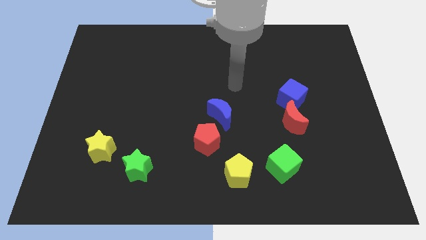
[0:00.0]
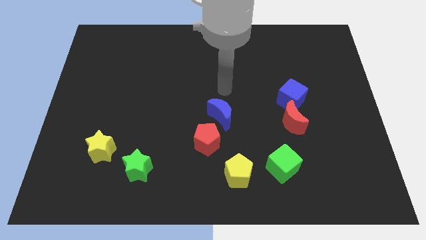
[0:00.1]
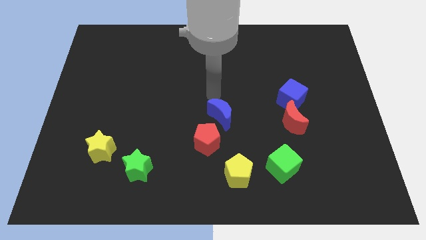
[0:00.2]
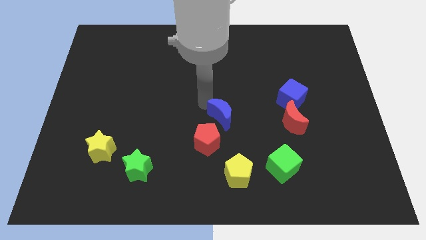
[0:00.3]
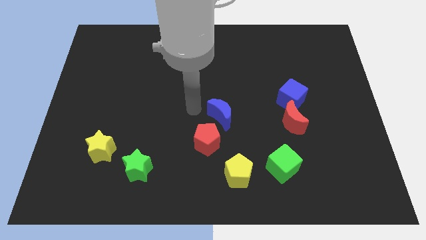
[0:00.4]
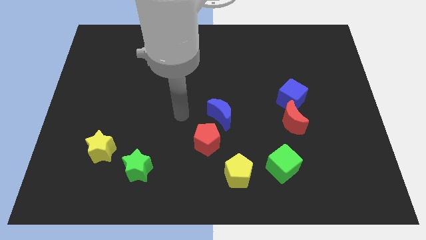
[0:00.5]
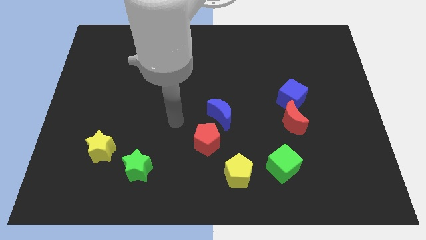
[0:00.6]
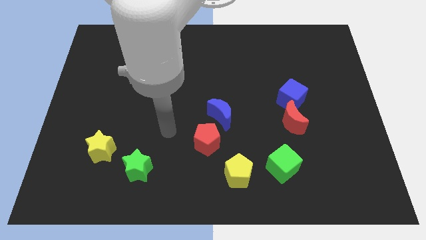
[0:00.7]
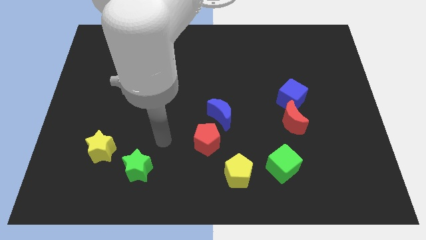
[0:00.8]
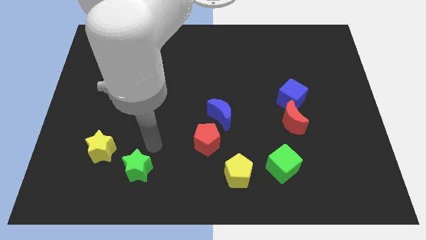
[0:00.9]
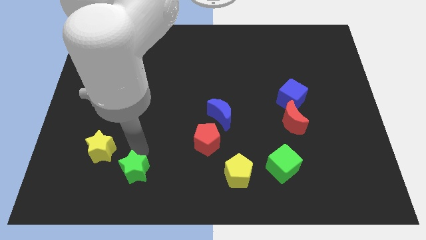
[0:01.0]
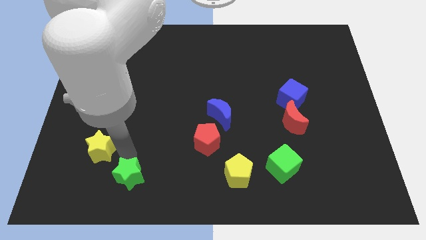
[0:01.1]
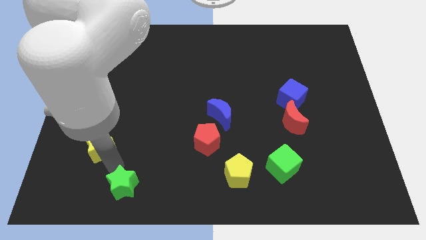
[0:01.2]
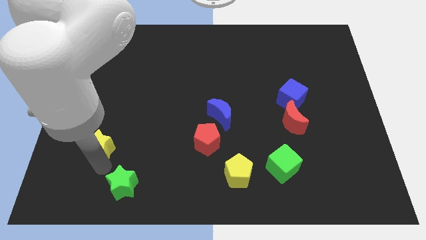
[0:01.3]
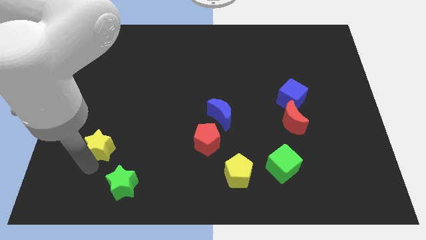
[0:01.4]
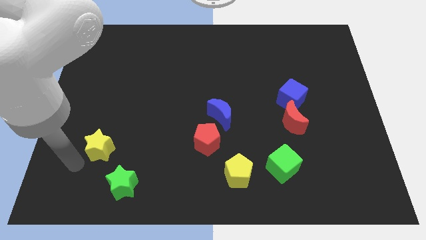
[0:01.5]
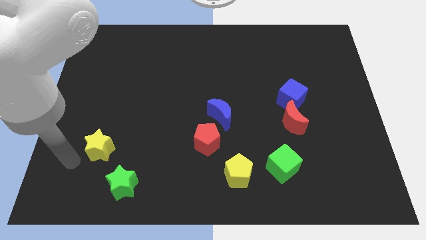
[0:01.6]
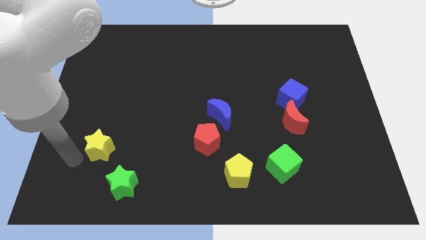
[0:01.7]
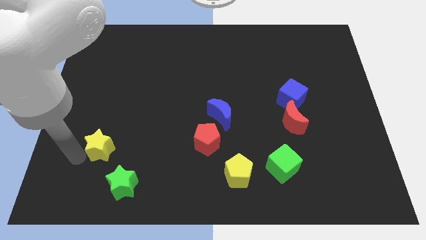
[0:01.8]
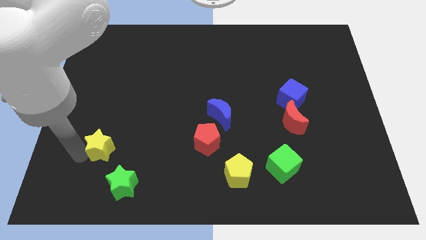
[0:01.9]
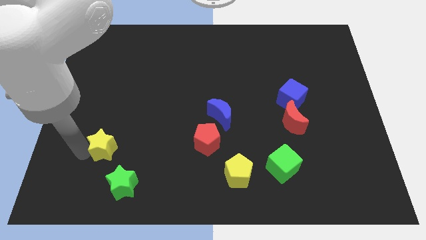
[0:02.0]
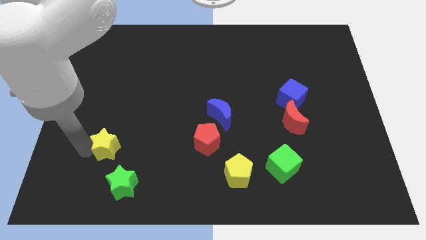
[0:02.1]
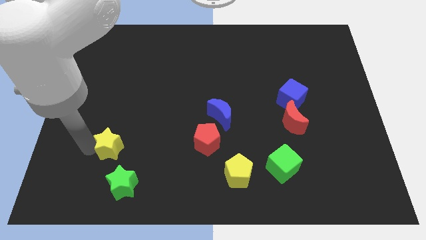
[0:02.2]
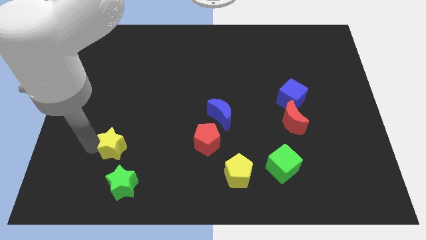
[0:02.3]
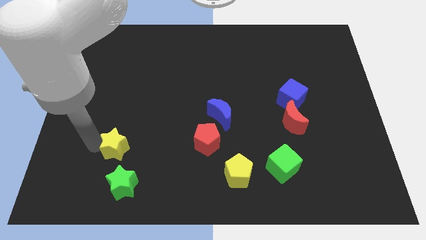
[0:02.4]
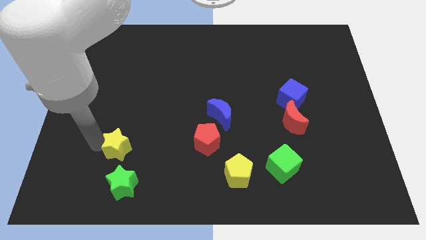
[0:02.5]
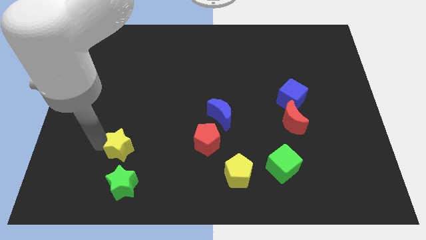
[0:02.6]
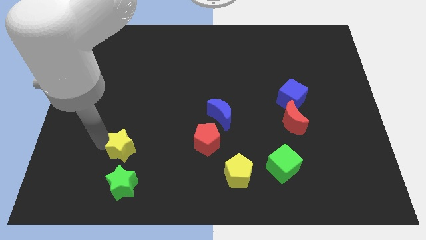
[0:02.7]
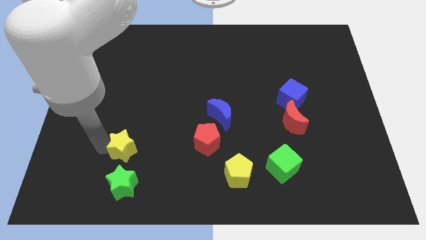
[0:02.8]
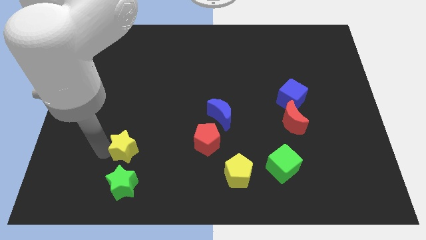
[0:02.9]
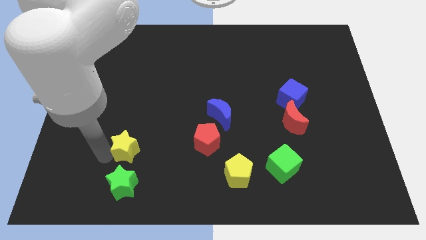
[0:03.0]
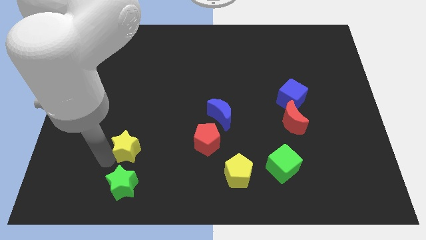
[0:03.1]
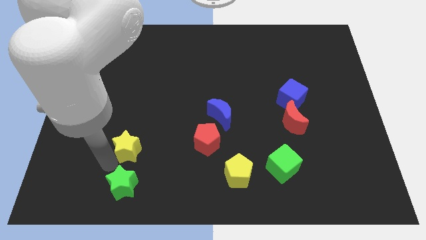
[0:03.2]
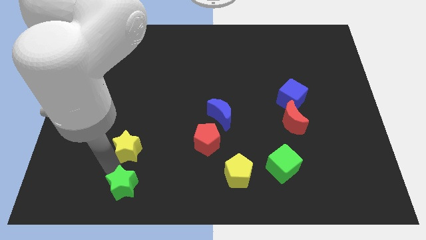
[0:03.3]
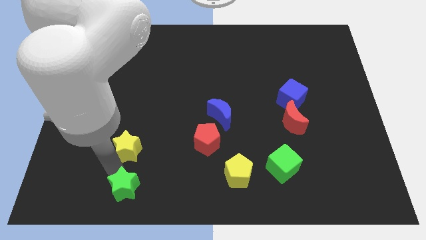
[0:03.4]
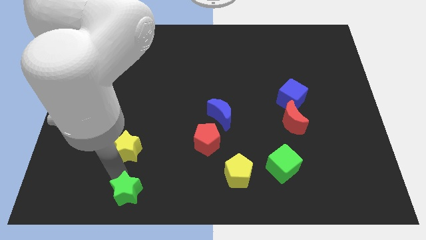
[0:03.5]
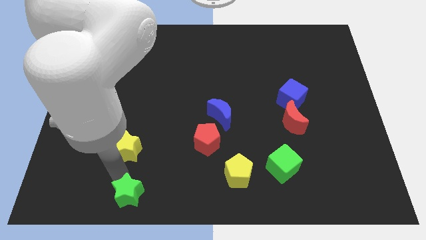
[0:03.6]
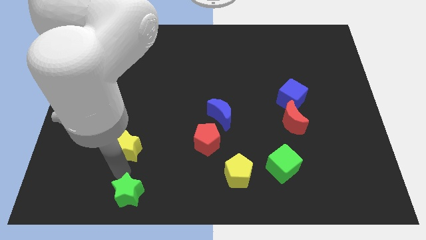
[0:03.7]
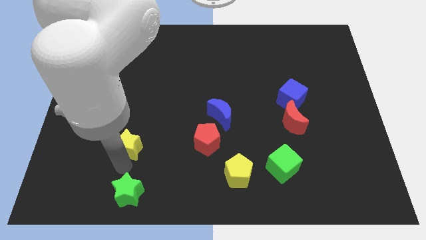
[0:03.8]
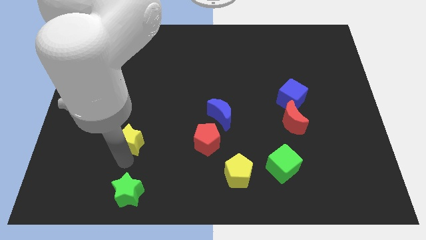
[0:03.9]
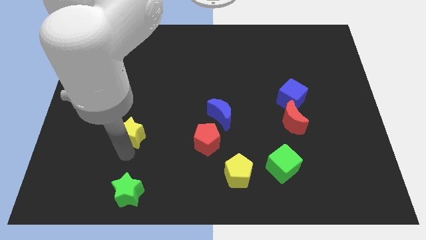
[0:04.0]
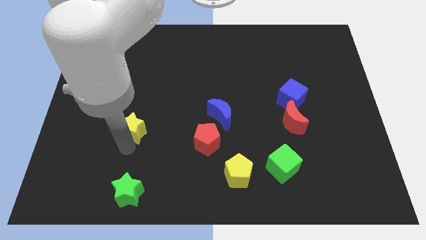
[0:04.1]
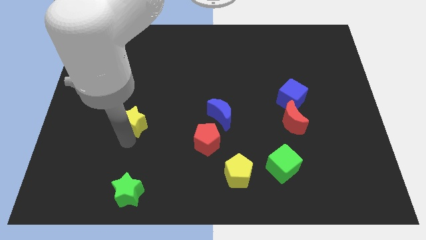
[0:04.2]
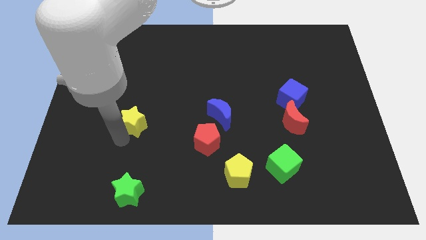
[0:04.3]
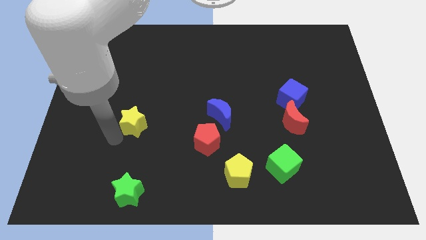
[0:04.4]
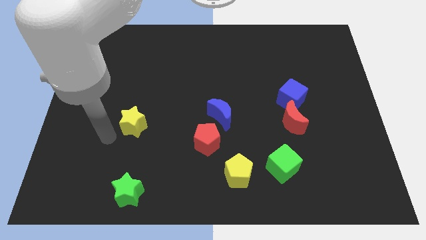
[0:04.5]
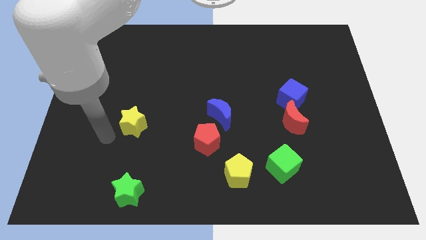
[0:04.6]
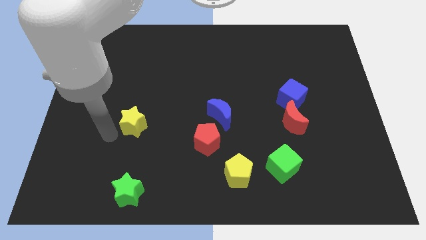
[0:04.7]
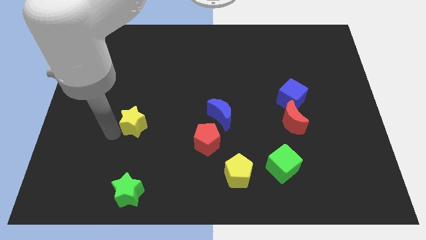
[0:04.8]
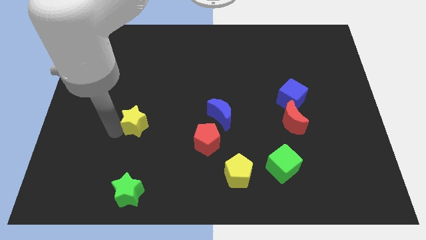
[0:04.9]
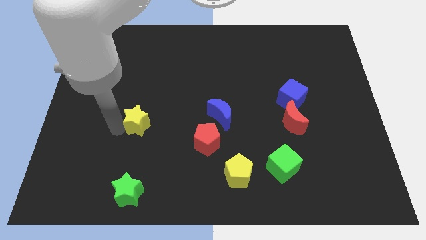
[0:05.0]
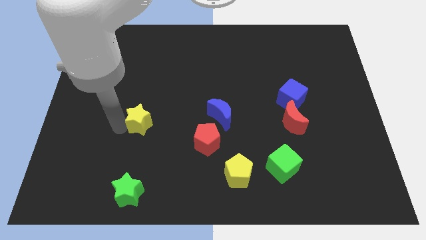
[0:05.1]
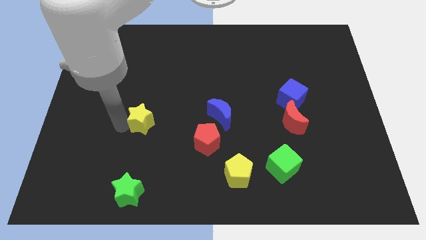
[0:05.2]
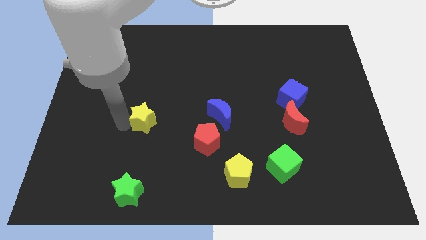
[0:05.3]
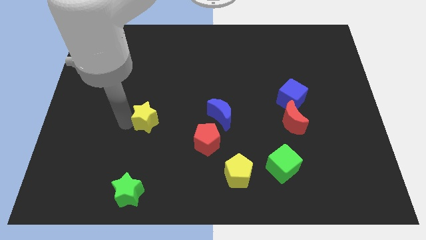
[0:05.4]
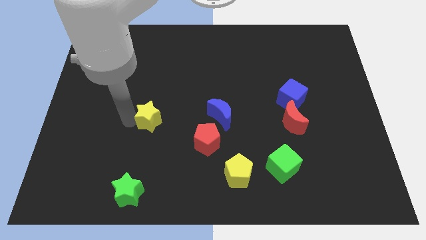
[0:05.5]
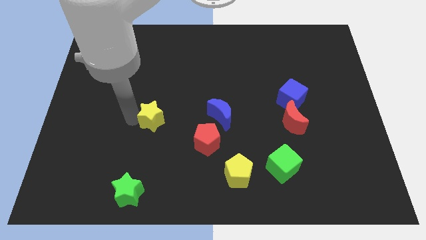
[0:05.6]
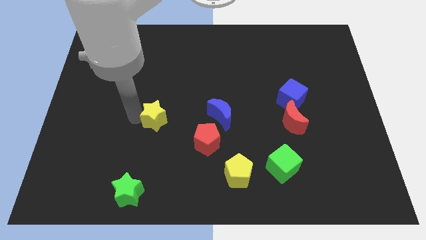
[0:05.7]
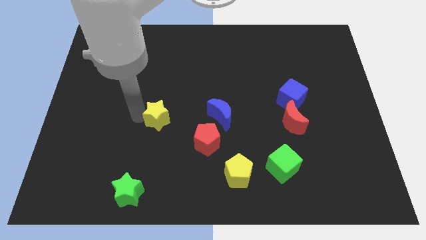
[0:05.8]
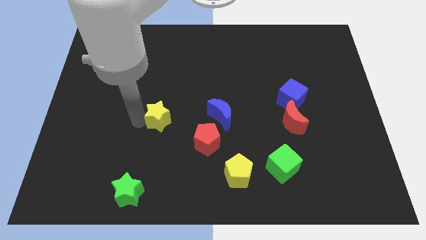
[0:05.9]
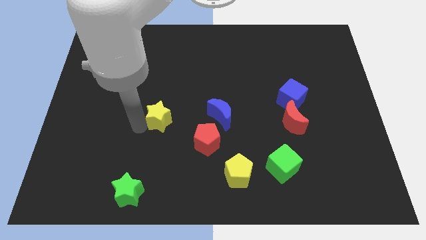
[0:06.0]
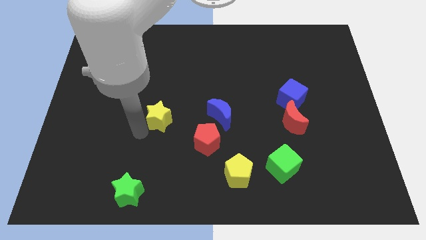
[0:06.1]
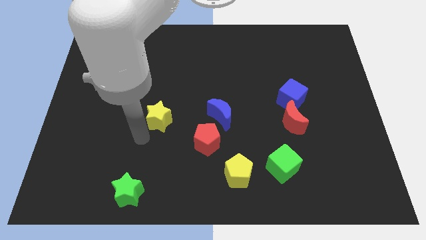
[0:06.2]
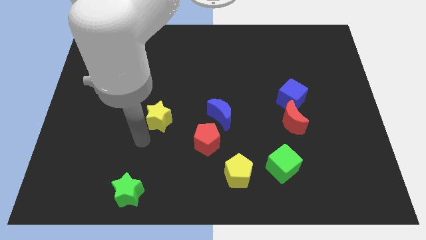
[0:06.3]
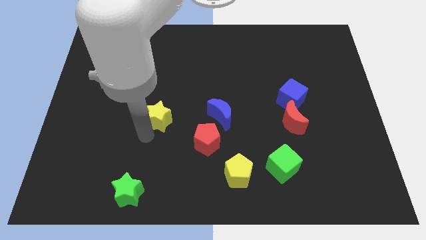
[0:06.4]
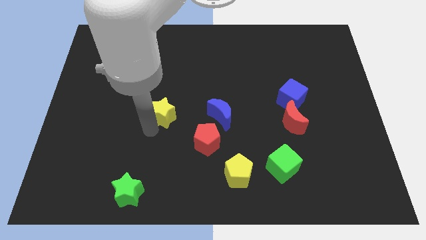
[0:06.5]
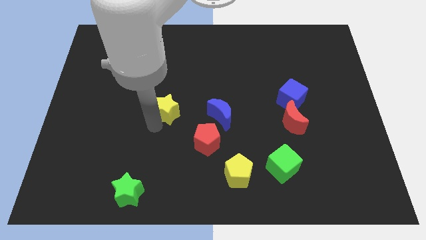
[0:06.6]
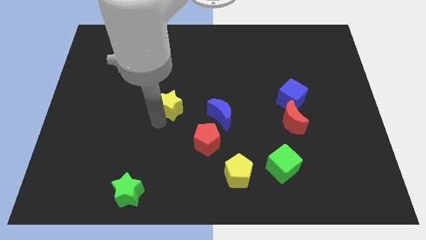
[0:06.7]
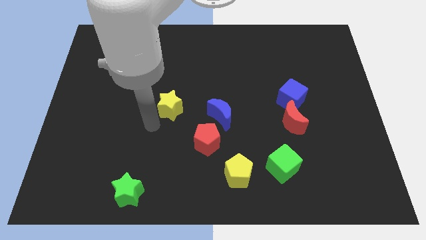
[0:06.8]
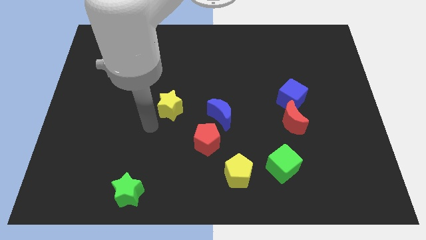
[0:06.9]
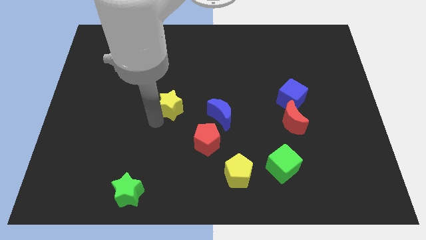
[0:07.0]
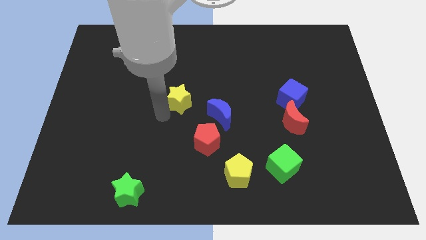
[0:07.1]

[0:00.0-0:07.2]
push the yellow star diagonally up and to the right

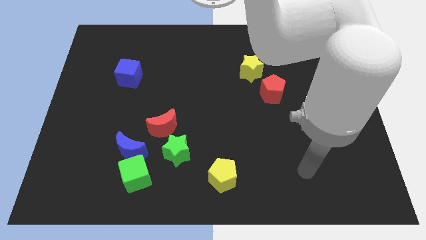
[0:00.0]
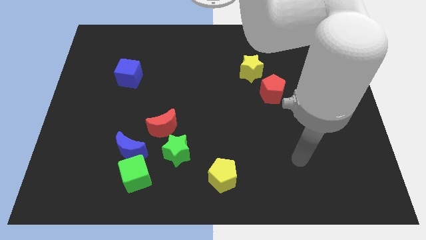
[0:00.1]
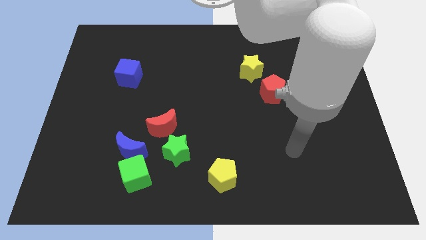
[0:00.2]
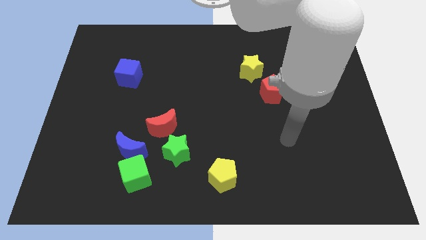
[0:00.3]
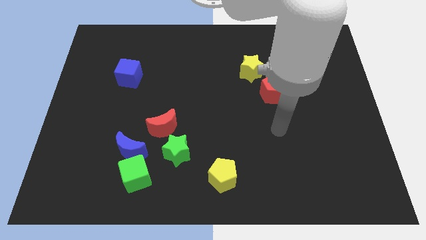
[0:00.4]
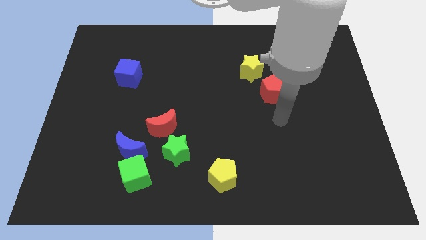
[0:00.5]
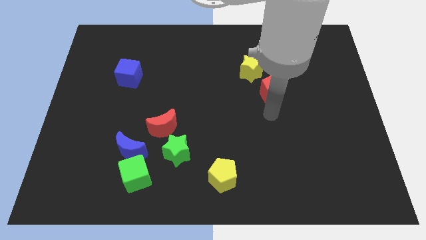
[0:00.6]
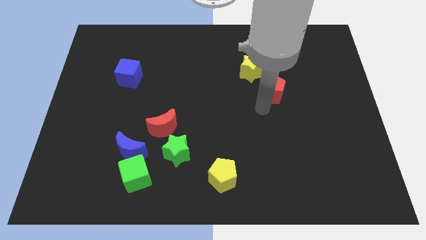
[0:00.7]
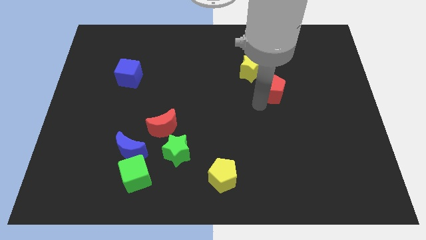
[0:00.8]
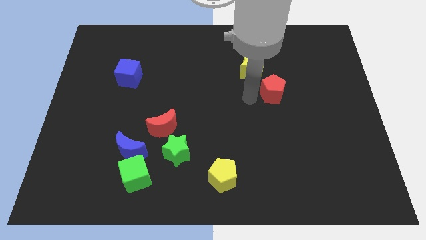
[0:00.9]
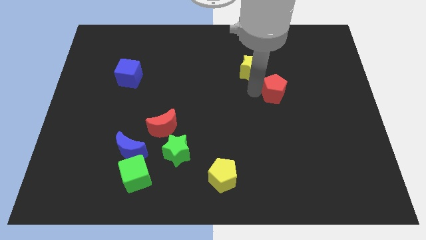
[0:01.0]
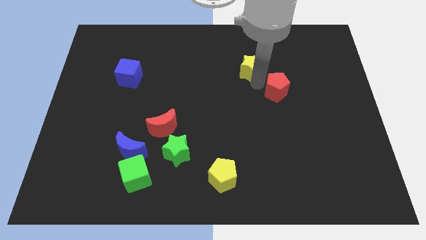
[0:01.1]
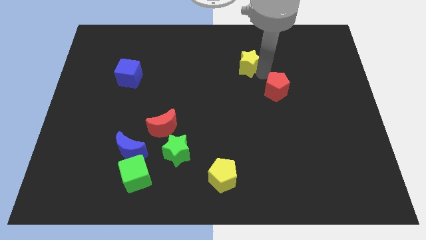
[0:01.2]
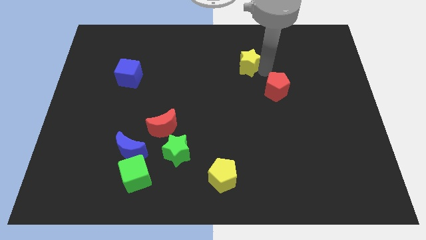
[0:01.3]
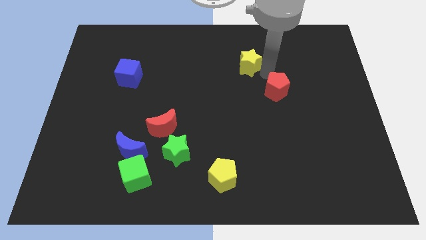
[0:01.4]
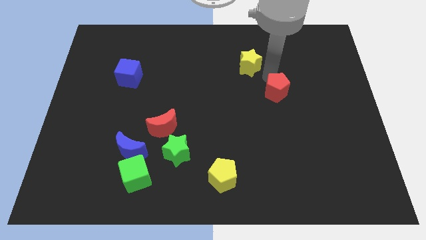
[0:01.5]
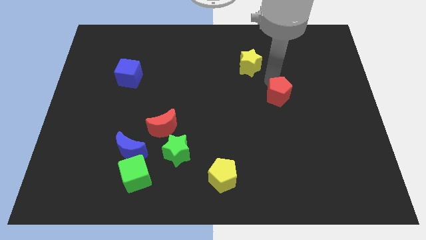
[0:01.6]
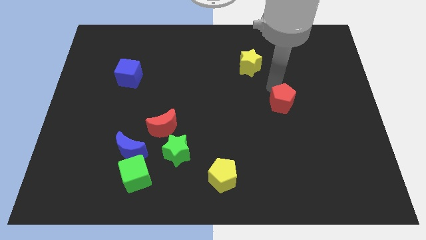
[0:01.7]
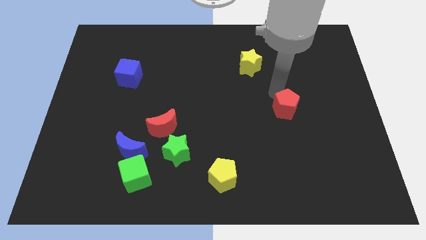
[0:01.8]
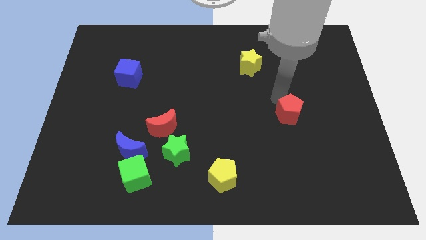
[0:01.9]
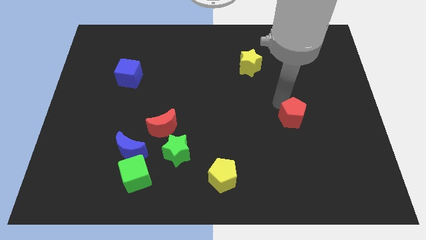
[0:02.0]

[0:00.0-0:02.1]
move the red pentagon downwards and then to the right a bit
